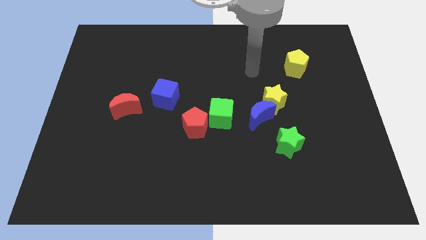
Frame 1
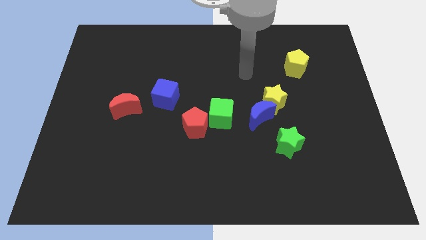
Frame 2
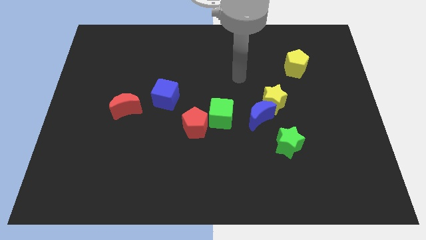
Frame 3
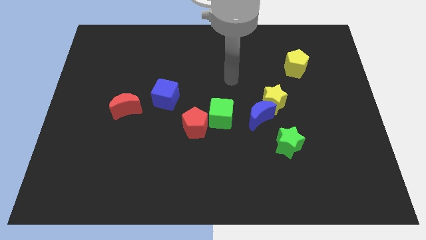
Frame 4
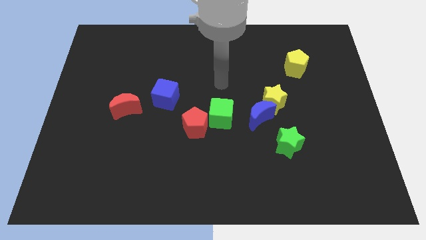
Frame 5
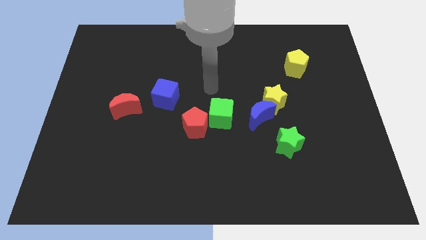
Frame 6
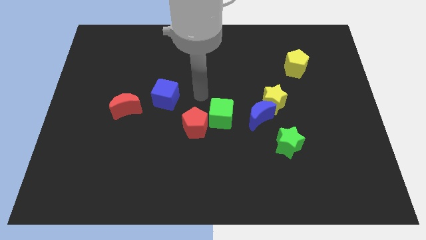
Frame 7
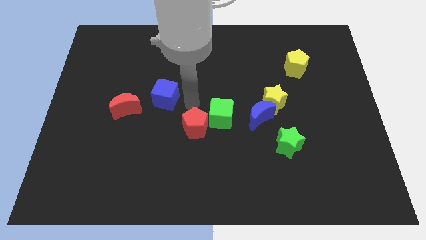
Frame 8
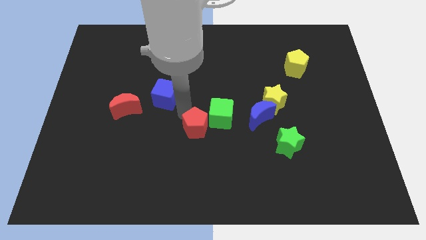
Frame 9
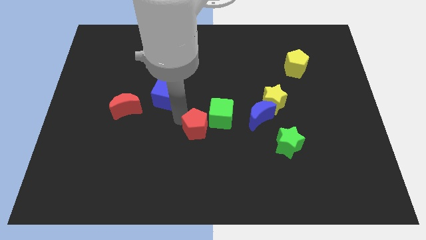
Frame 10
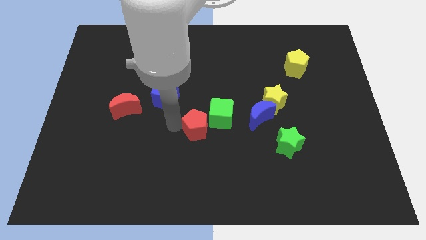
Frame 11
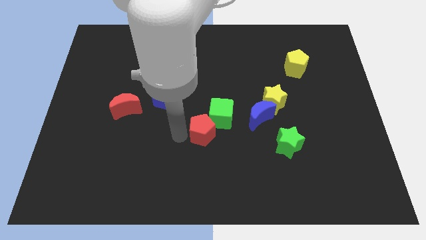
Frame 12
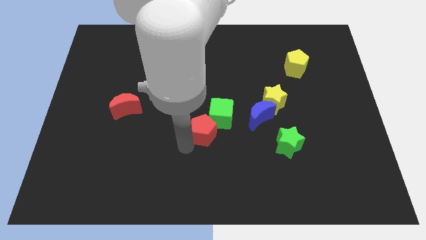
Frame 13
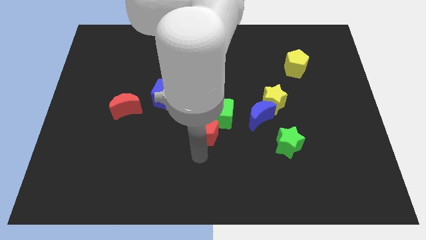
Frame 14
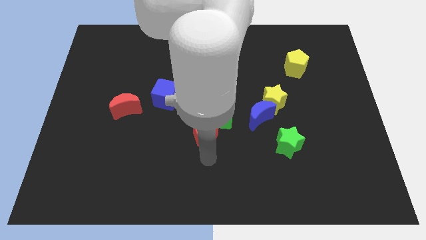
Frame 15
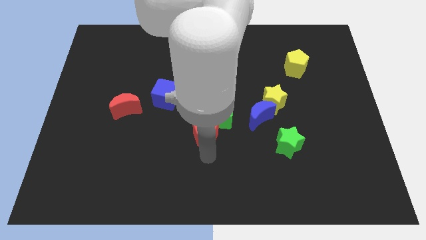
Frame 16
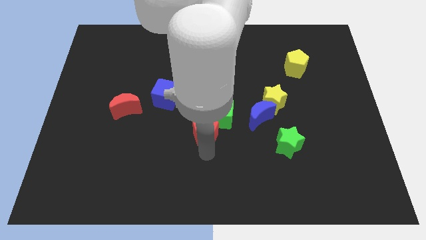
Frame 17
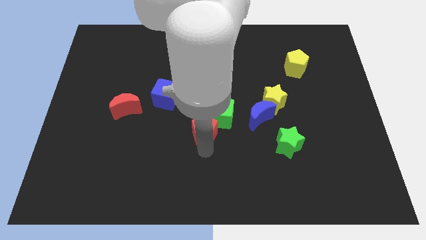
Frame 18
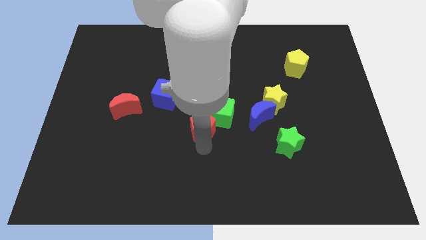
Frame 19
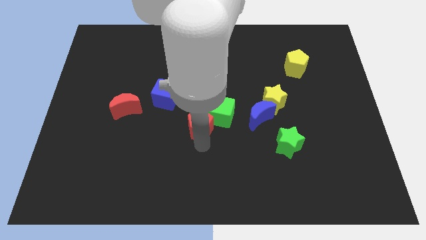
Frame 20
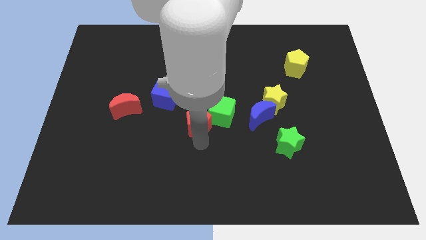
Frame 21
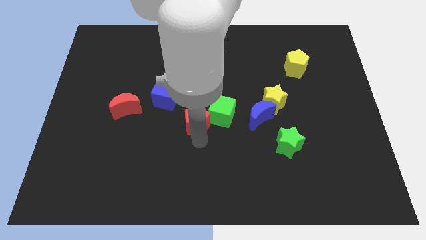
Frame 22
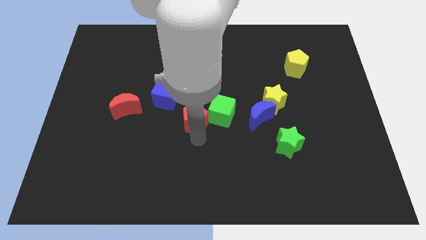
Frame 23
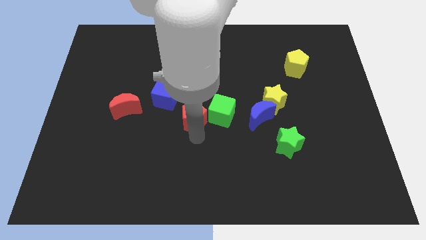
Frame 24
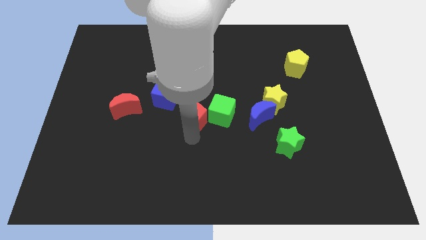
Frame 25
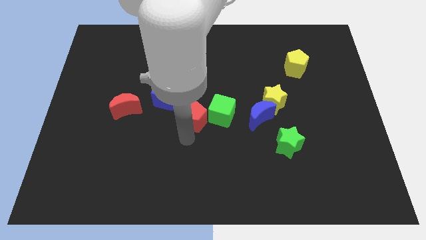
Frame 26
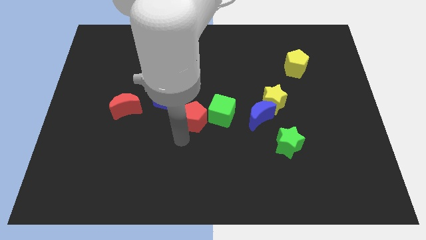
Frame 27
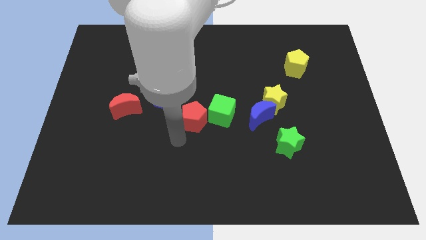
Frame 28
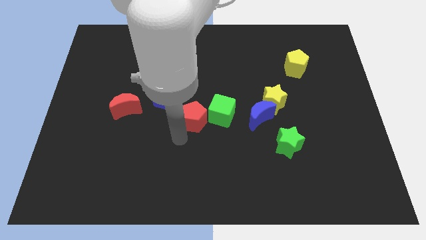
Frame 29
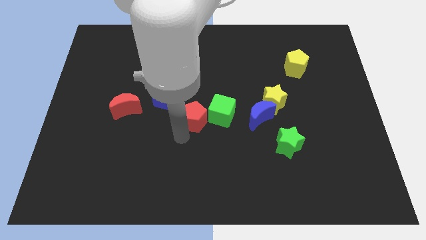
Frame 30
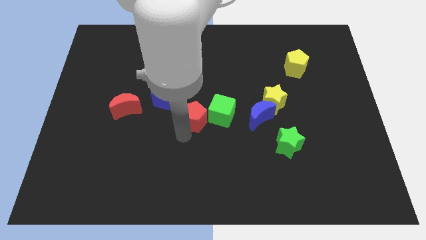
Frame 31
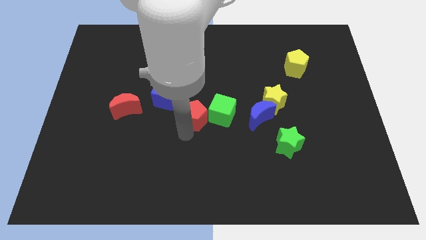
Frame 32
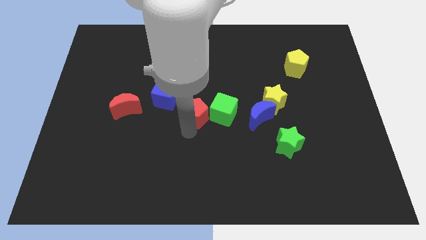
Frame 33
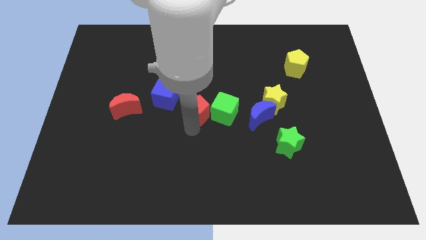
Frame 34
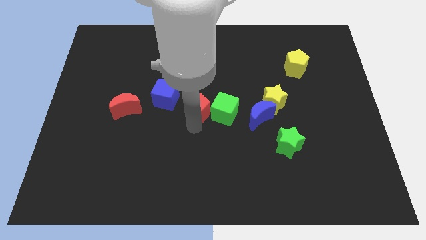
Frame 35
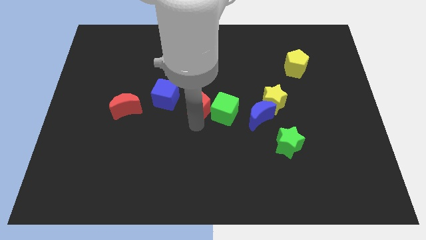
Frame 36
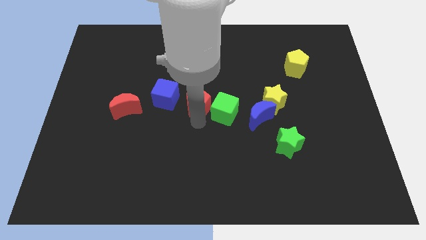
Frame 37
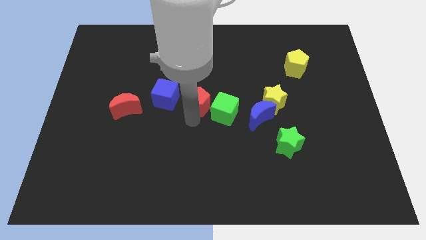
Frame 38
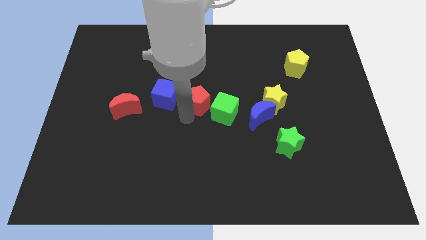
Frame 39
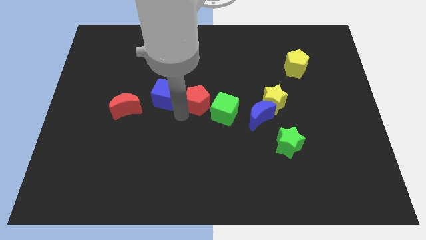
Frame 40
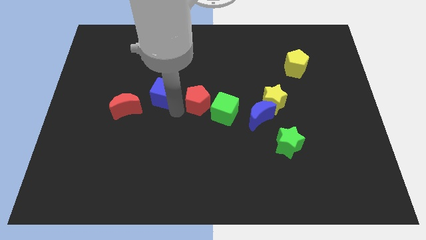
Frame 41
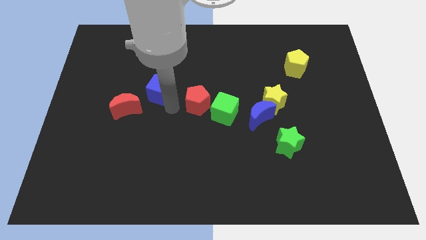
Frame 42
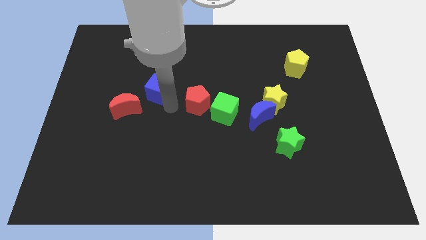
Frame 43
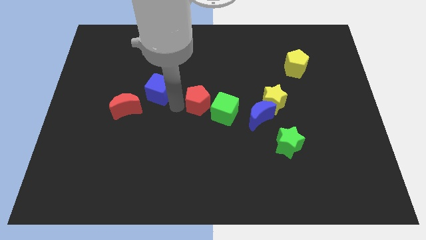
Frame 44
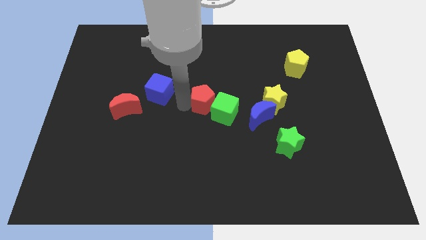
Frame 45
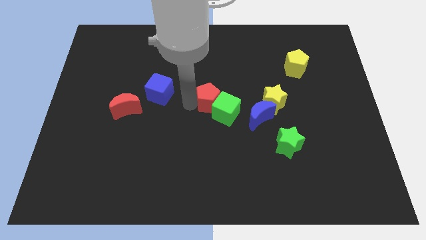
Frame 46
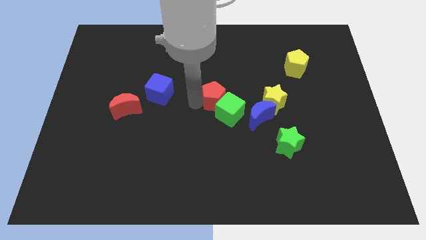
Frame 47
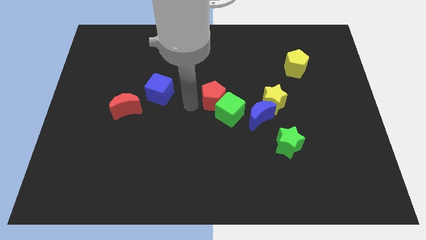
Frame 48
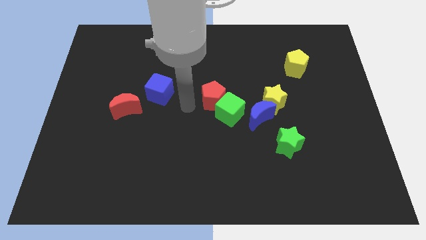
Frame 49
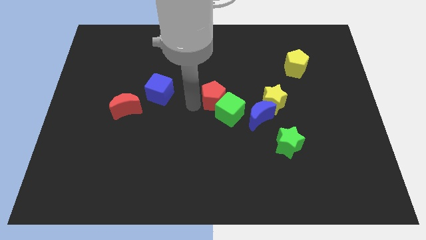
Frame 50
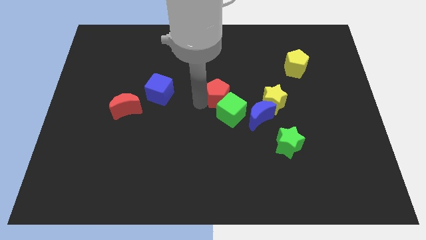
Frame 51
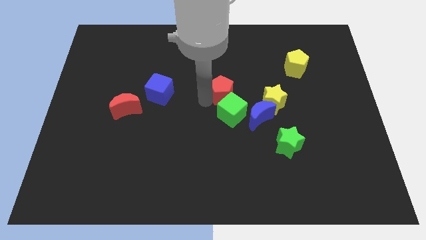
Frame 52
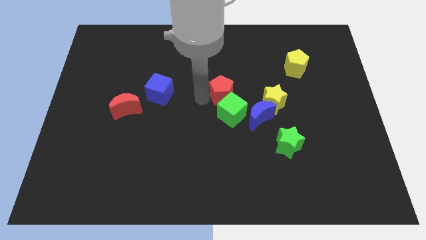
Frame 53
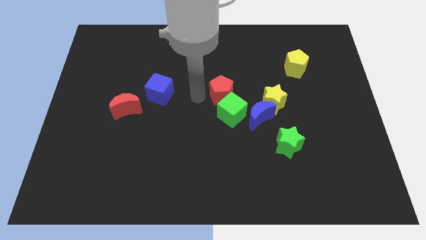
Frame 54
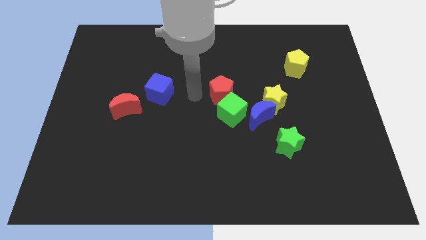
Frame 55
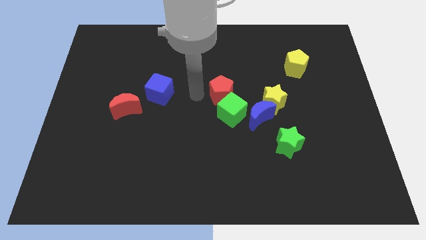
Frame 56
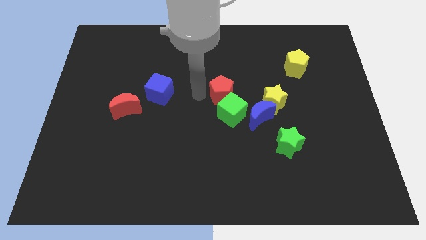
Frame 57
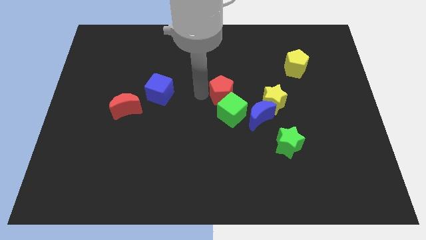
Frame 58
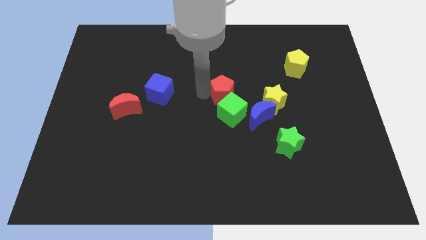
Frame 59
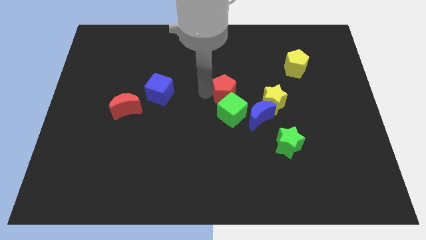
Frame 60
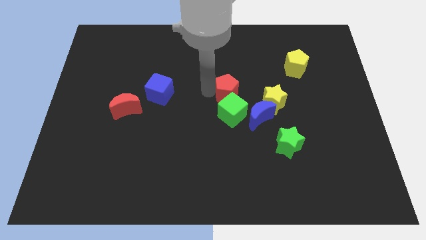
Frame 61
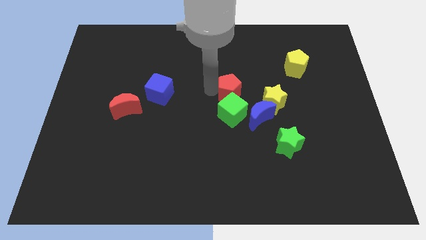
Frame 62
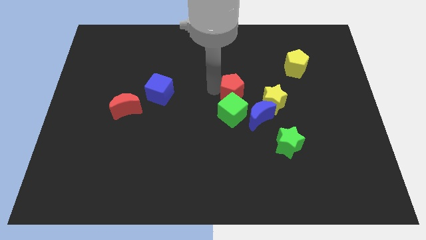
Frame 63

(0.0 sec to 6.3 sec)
push the red pentagon diagonally up and to the left of the yellow star

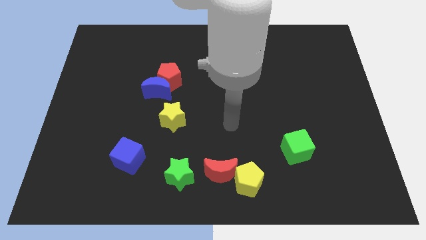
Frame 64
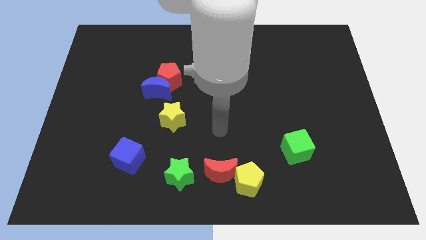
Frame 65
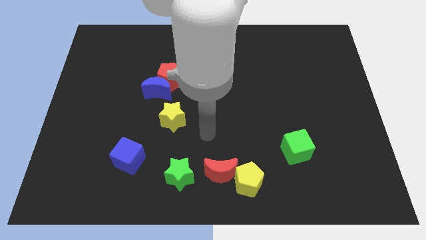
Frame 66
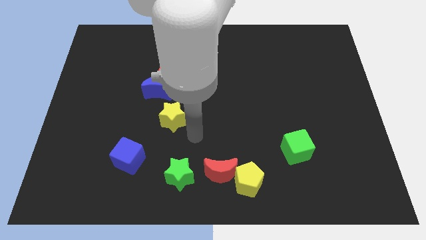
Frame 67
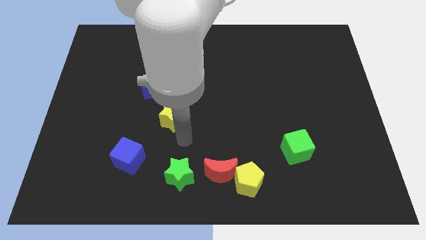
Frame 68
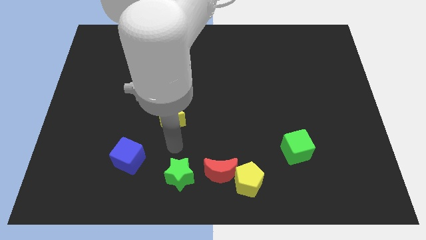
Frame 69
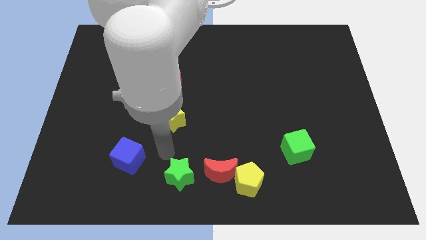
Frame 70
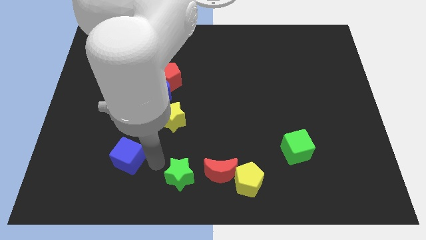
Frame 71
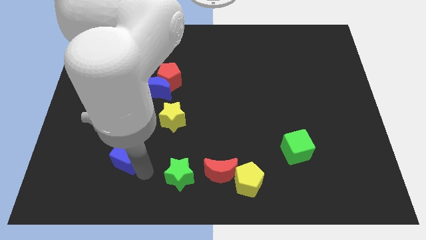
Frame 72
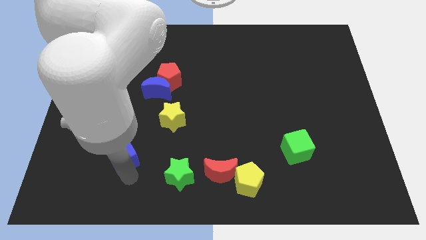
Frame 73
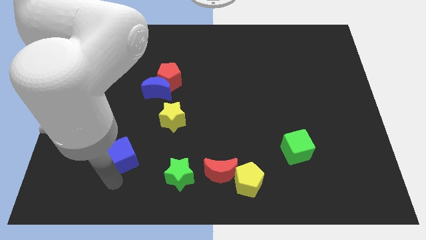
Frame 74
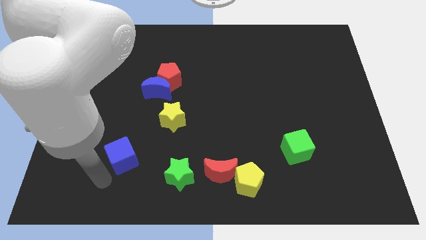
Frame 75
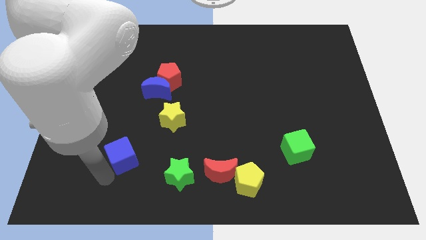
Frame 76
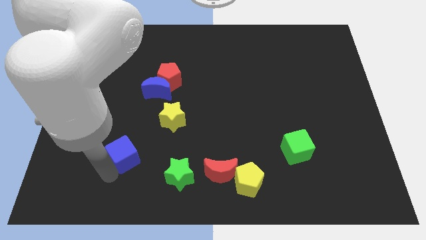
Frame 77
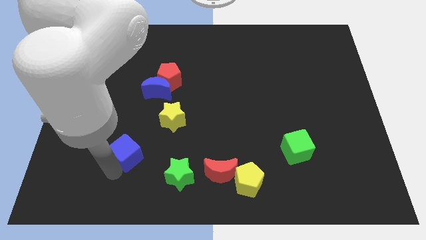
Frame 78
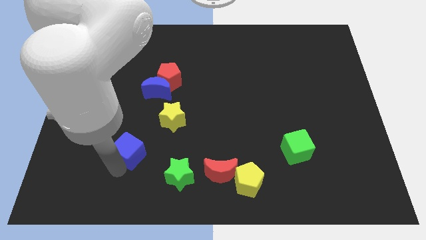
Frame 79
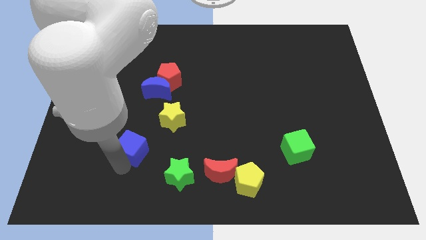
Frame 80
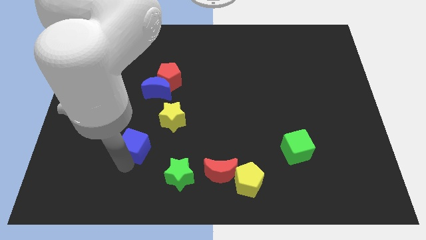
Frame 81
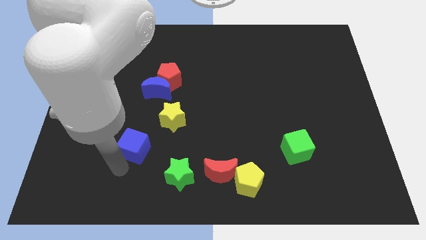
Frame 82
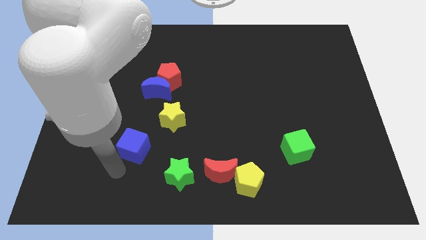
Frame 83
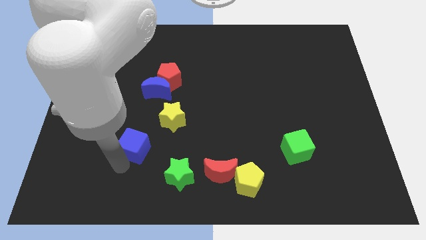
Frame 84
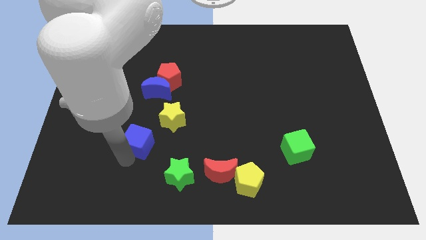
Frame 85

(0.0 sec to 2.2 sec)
slide the blue cube to the bottom of the blue moon
